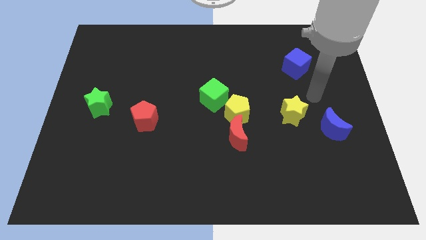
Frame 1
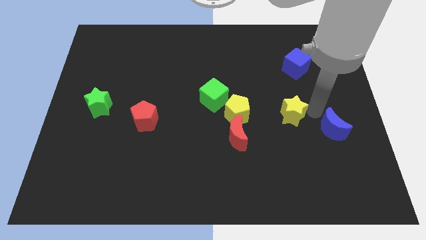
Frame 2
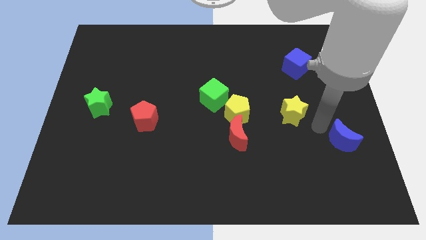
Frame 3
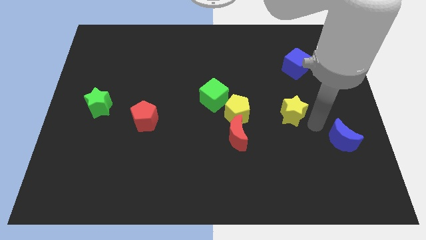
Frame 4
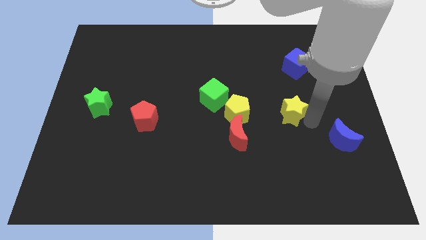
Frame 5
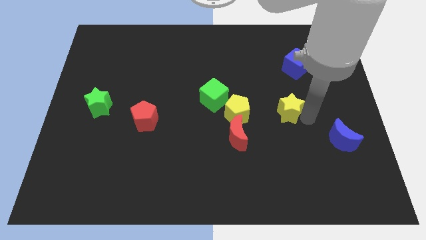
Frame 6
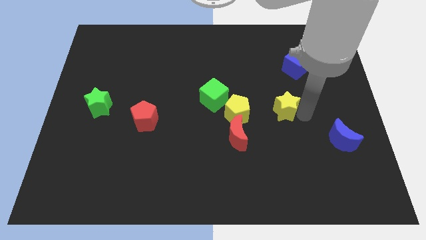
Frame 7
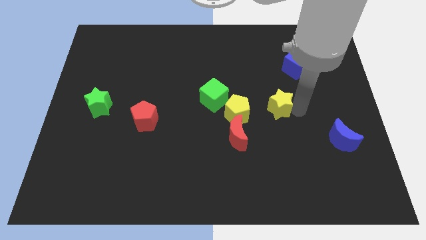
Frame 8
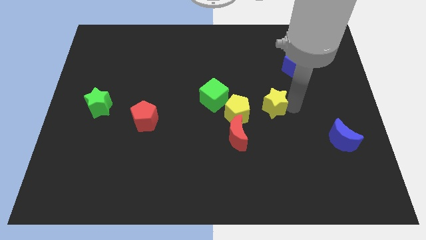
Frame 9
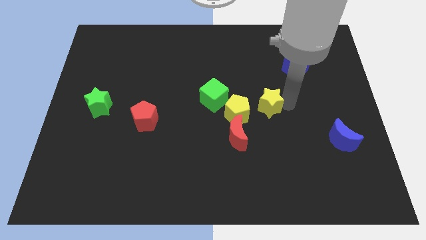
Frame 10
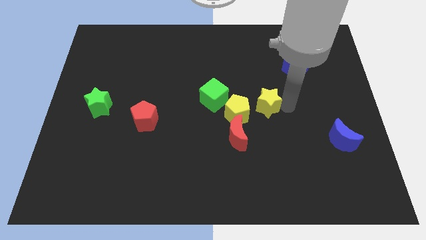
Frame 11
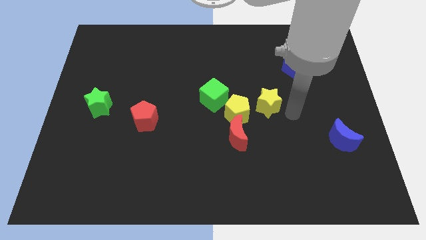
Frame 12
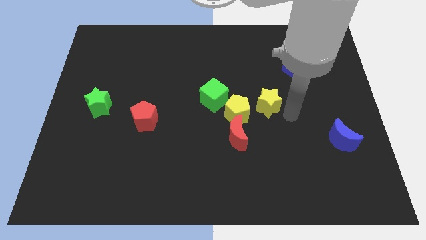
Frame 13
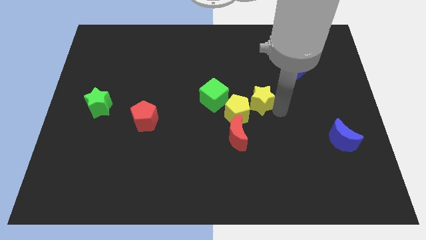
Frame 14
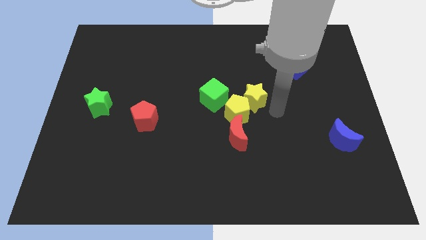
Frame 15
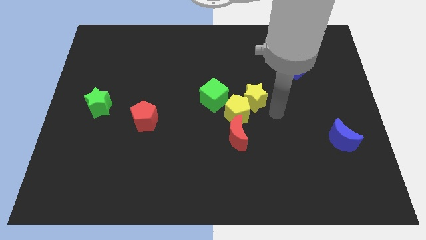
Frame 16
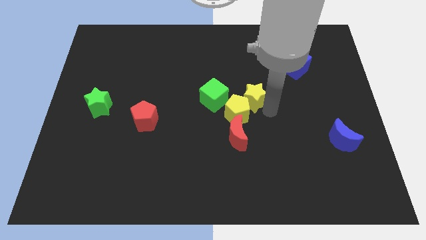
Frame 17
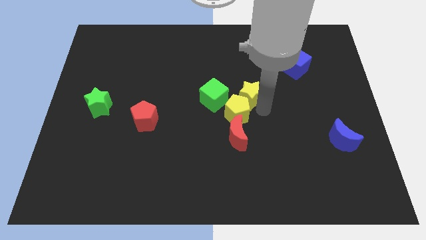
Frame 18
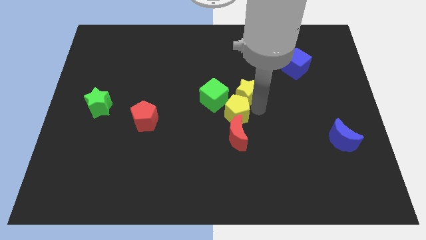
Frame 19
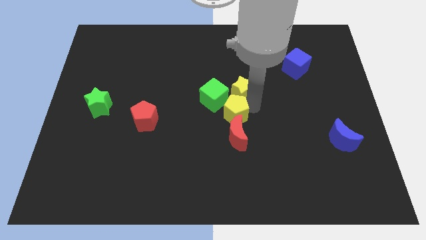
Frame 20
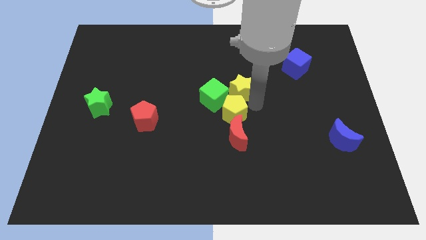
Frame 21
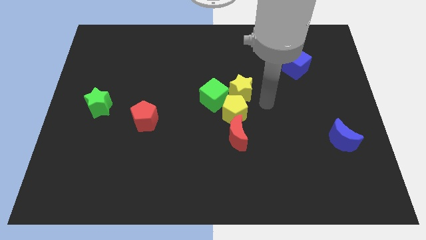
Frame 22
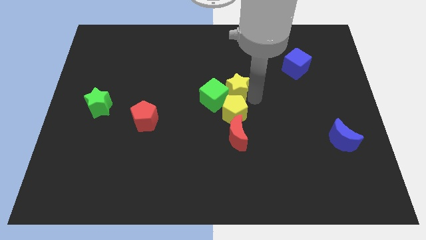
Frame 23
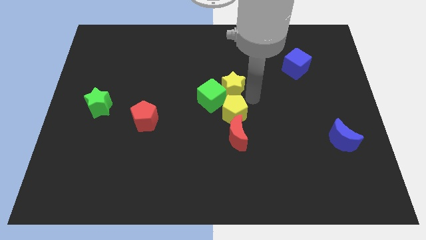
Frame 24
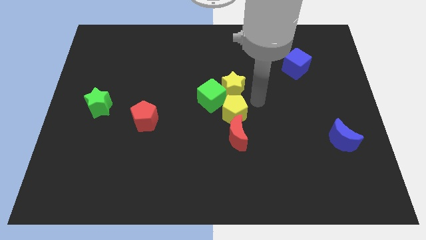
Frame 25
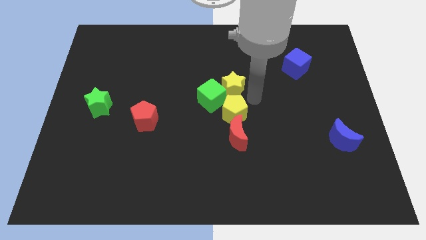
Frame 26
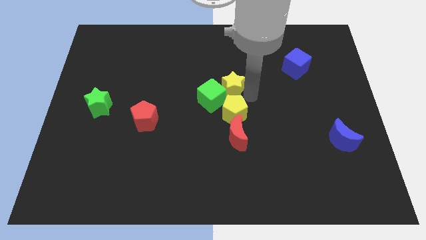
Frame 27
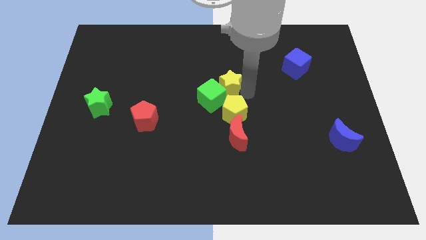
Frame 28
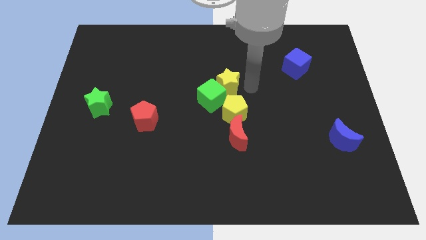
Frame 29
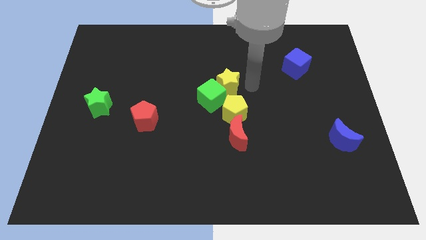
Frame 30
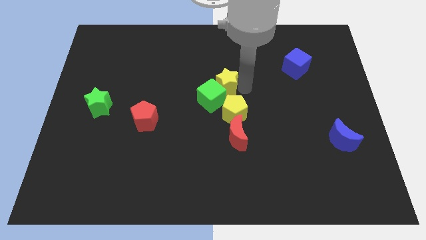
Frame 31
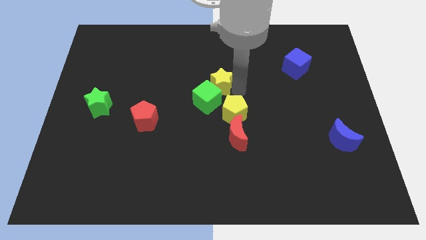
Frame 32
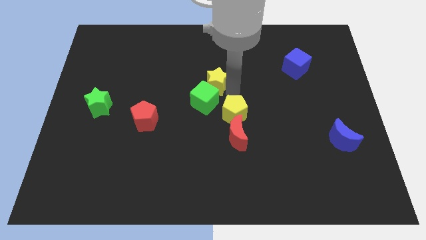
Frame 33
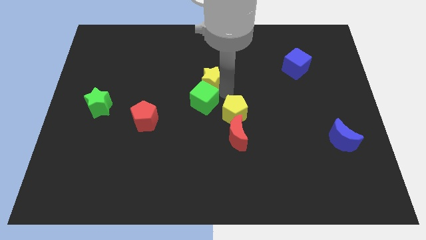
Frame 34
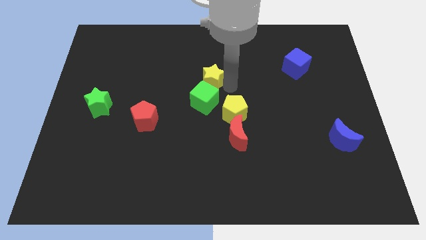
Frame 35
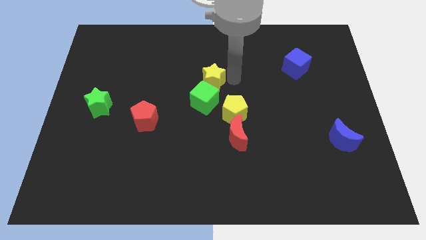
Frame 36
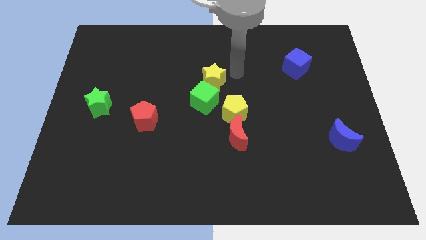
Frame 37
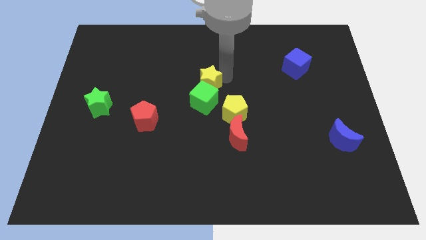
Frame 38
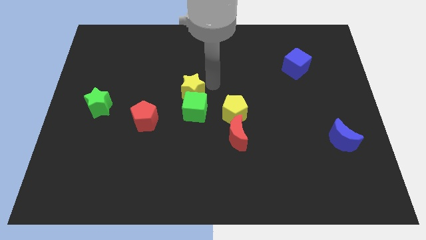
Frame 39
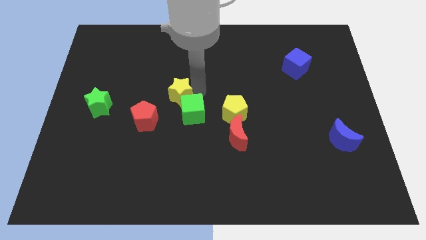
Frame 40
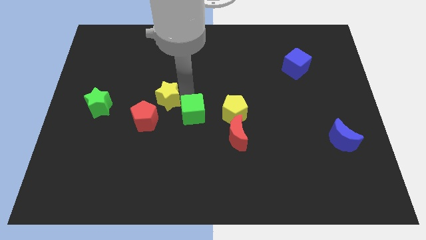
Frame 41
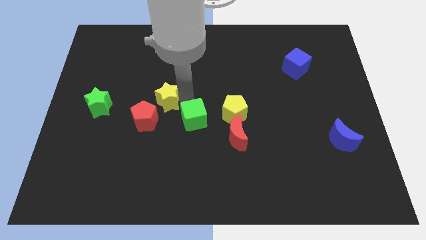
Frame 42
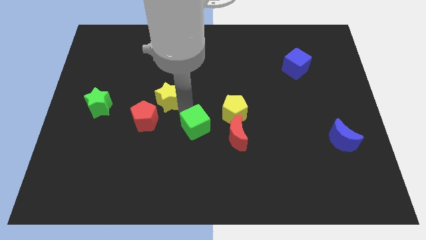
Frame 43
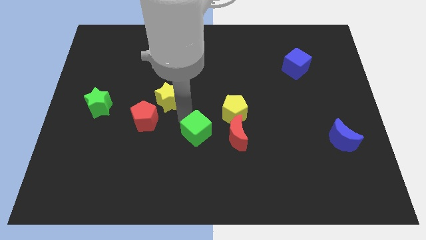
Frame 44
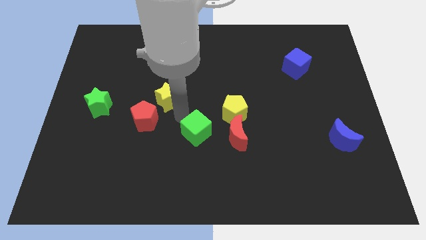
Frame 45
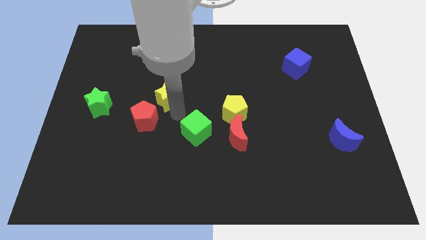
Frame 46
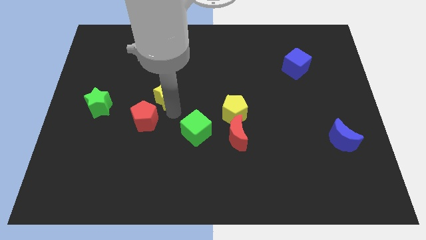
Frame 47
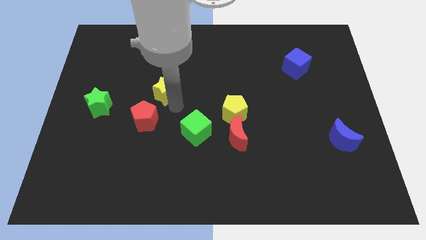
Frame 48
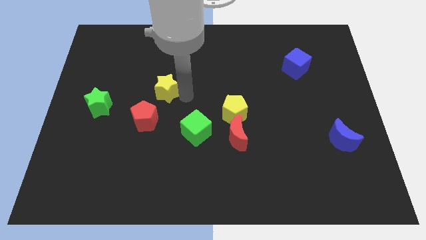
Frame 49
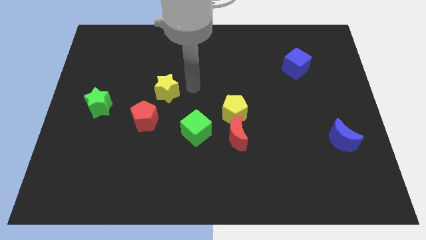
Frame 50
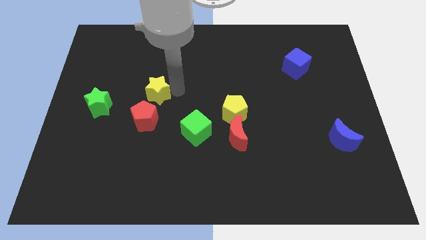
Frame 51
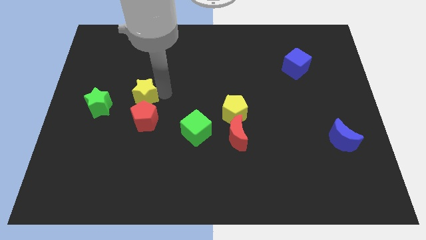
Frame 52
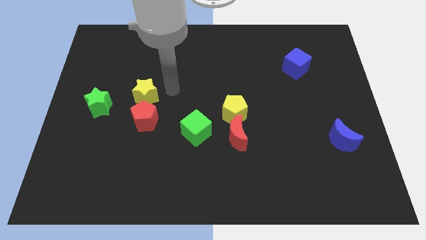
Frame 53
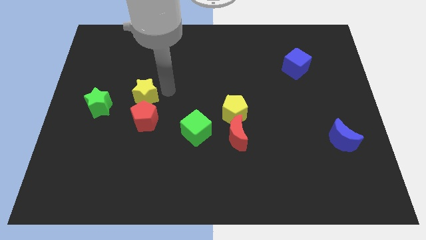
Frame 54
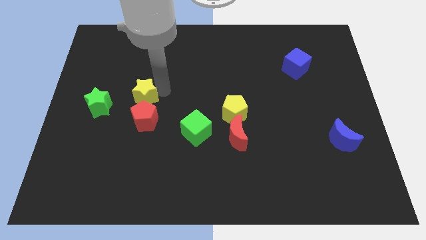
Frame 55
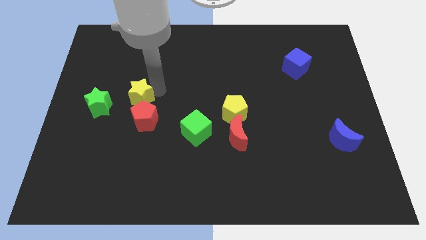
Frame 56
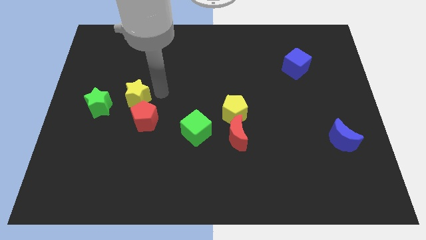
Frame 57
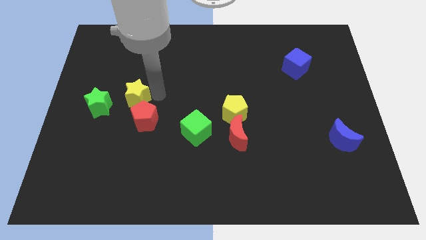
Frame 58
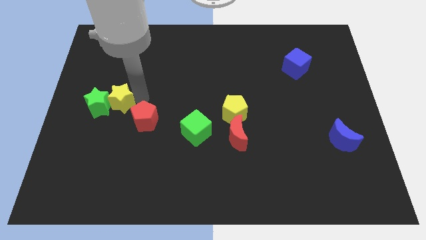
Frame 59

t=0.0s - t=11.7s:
put the yellow star to the green star

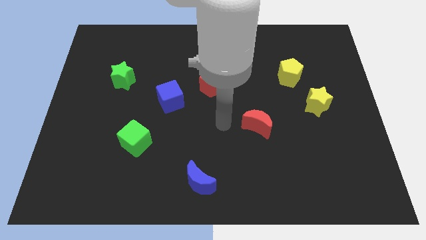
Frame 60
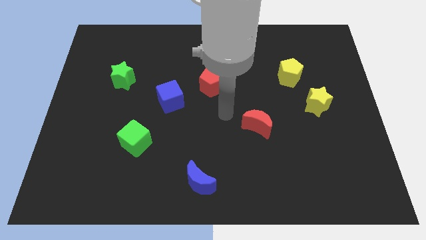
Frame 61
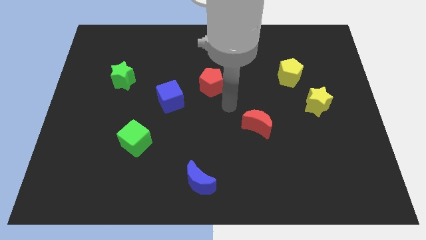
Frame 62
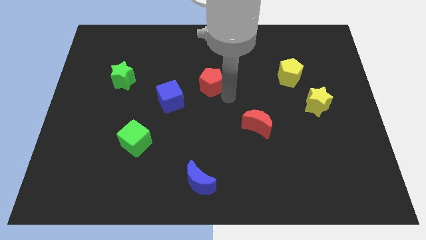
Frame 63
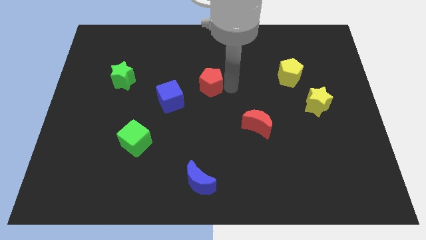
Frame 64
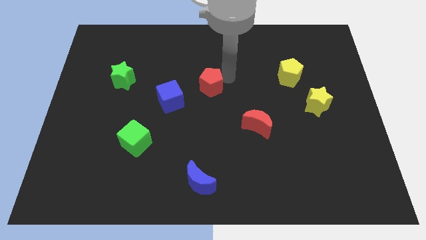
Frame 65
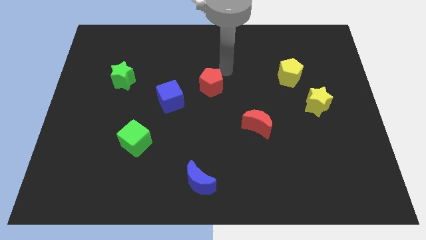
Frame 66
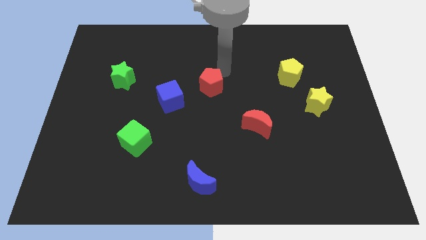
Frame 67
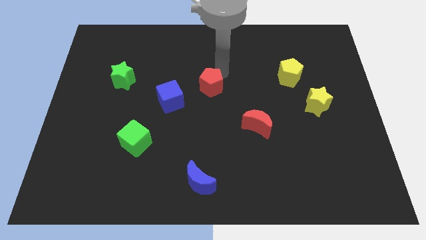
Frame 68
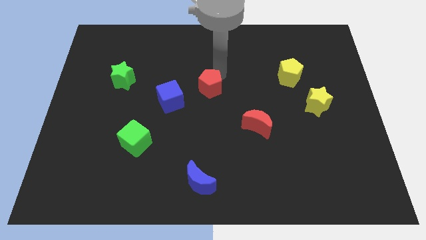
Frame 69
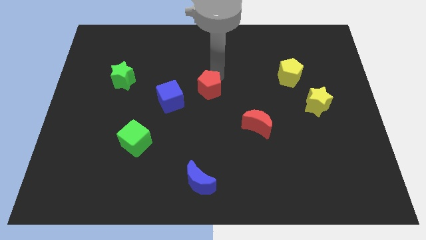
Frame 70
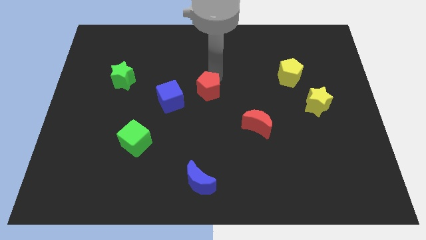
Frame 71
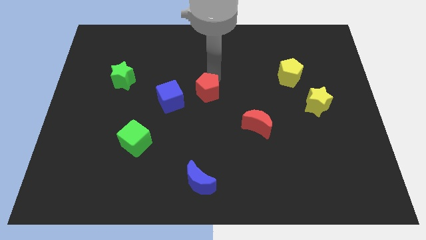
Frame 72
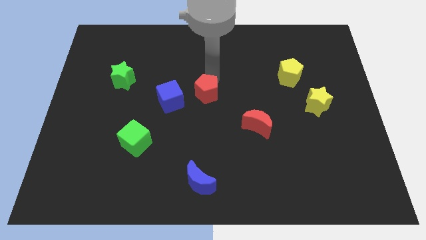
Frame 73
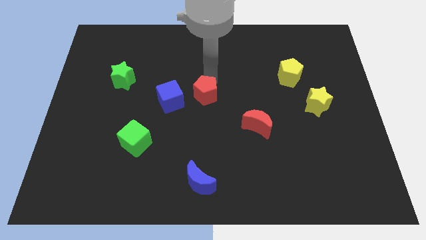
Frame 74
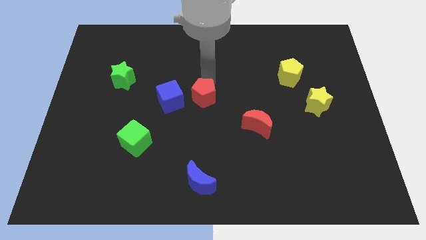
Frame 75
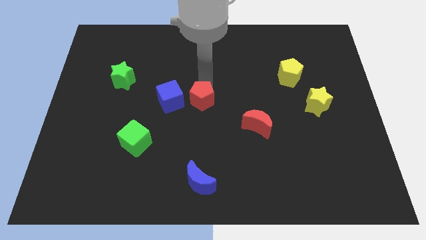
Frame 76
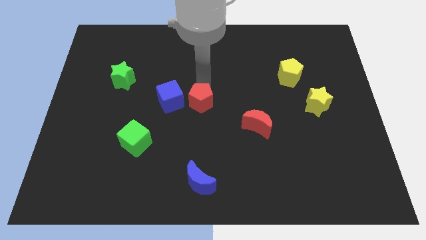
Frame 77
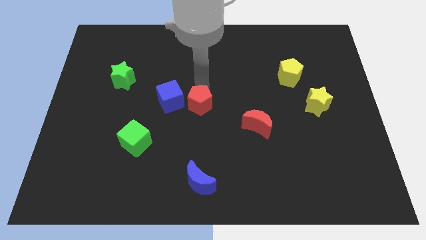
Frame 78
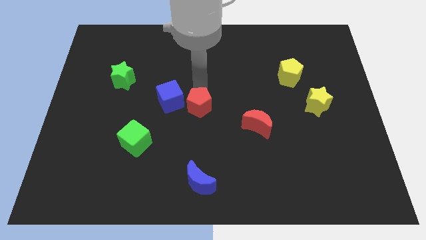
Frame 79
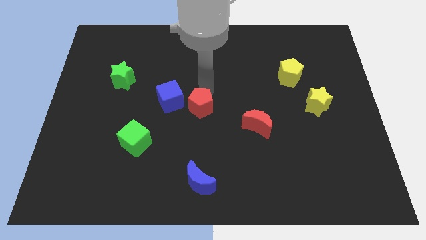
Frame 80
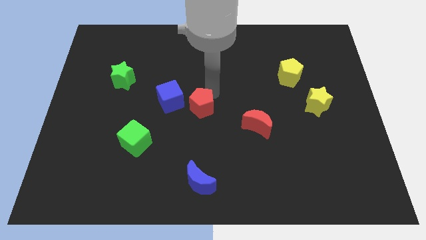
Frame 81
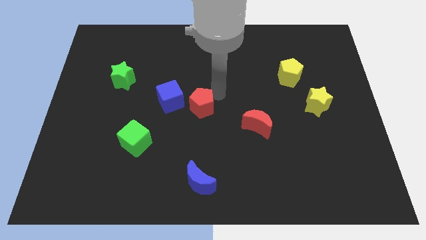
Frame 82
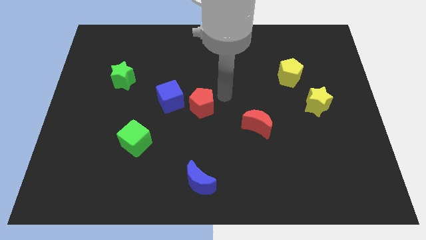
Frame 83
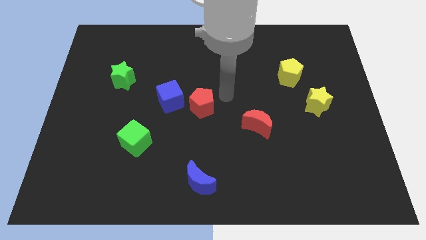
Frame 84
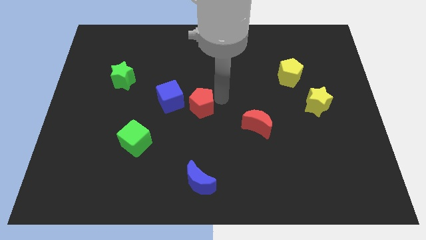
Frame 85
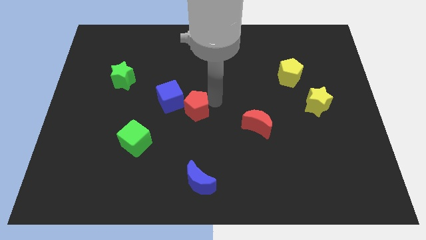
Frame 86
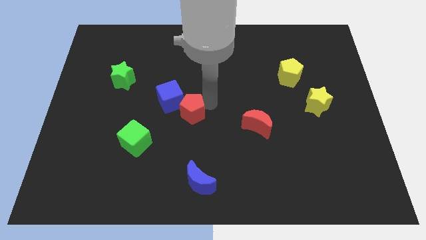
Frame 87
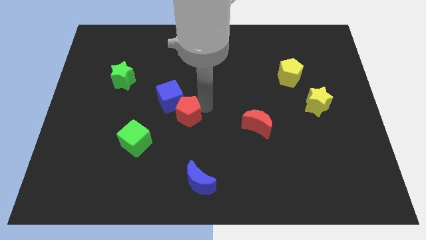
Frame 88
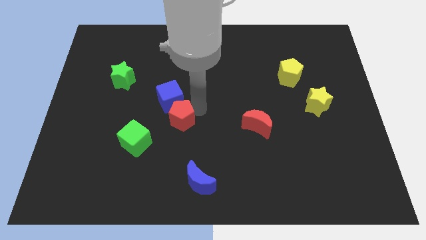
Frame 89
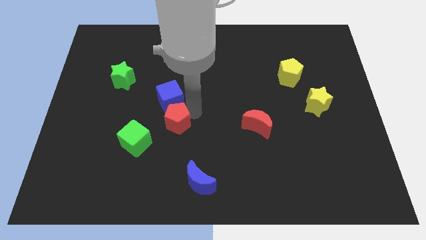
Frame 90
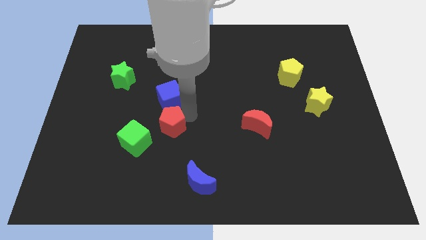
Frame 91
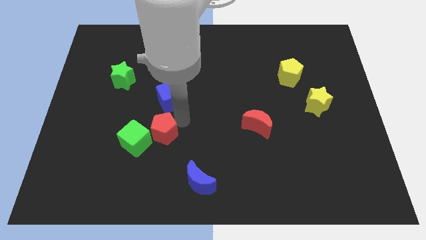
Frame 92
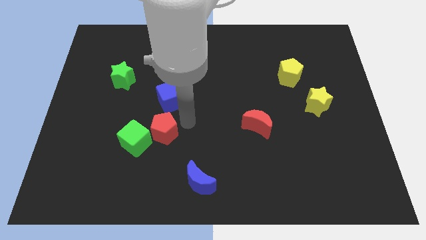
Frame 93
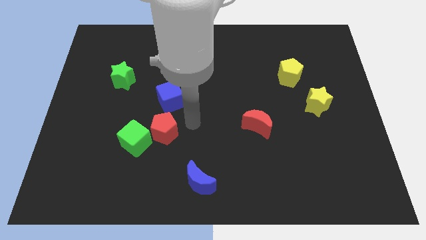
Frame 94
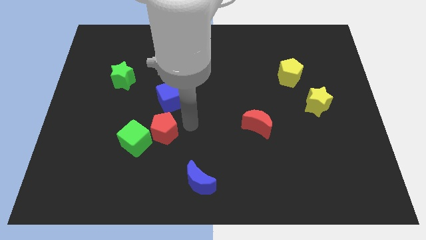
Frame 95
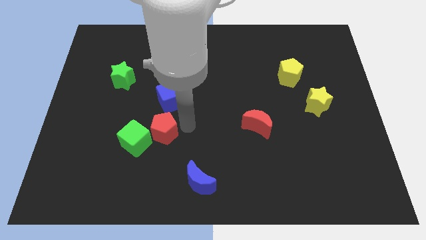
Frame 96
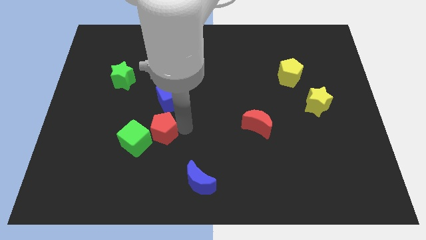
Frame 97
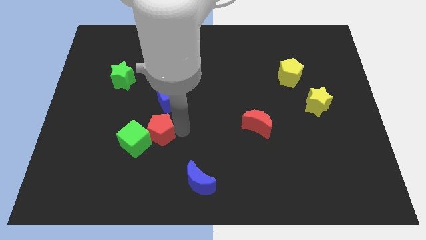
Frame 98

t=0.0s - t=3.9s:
put the red pentagon next to the green cube
